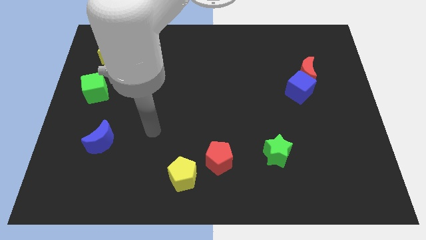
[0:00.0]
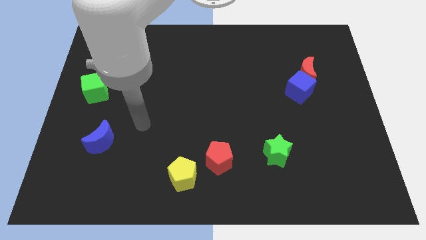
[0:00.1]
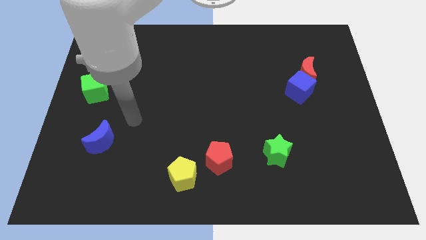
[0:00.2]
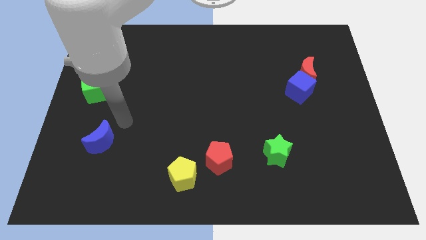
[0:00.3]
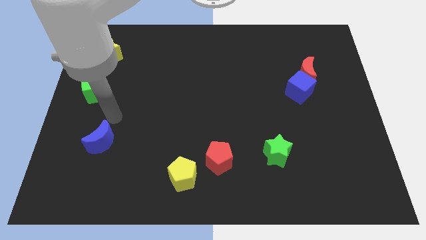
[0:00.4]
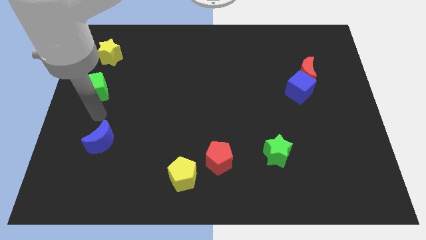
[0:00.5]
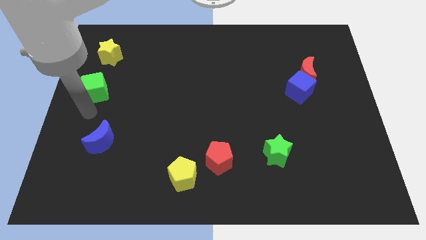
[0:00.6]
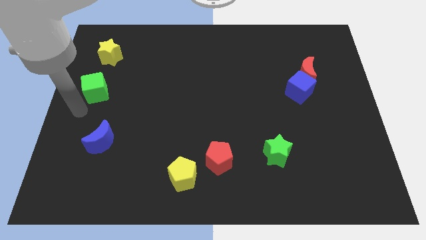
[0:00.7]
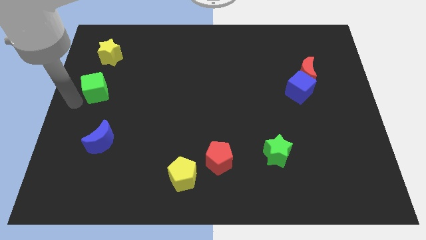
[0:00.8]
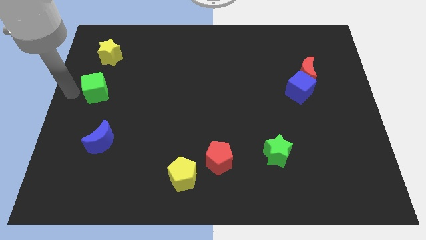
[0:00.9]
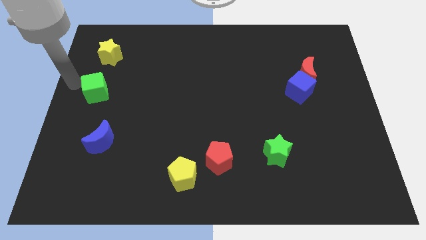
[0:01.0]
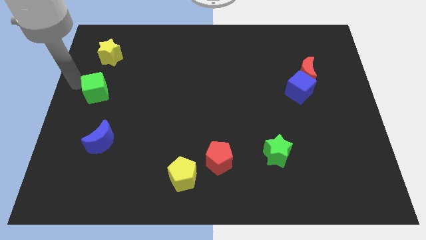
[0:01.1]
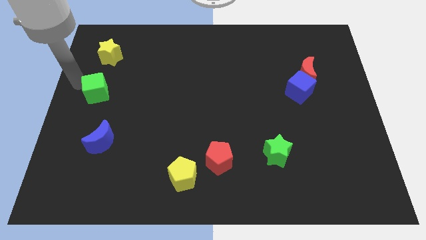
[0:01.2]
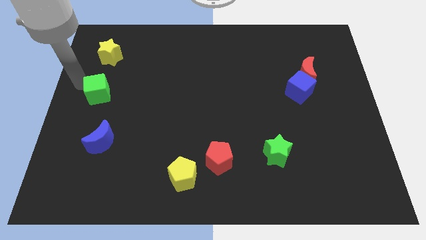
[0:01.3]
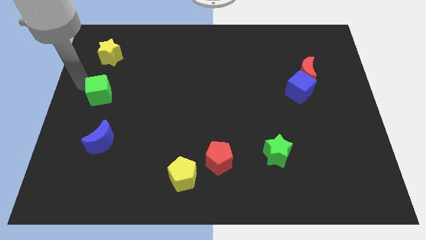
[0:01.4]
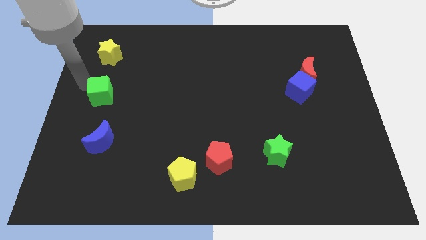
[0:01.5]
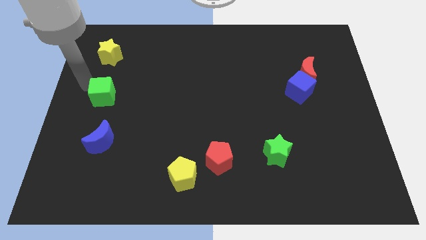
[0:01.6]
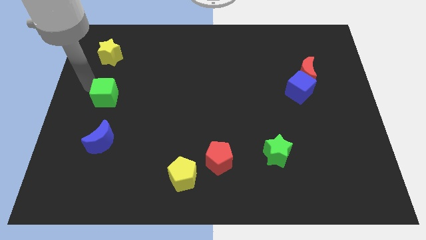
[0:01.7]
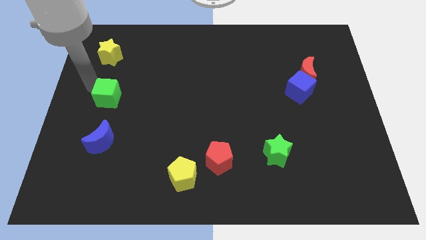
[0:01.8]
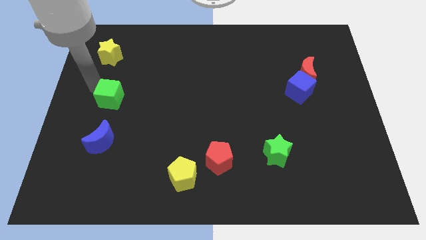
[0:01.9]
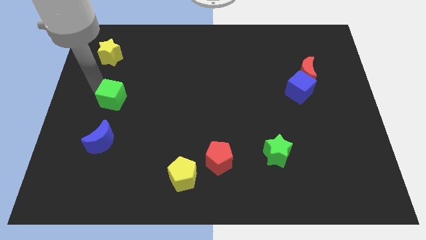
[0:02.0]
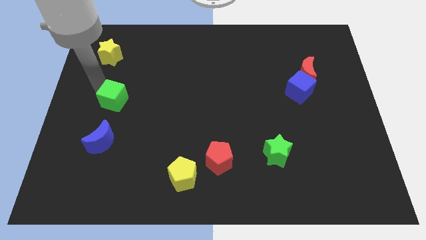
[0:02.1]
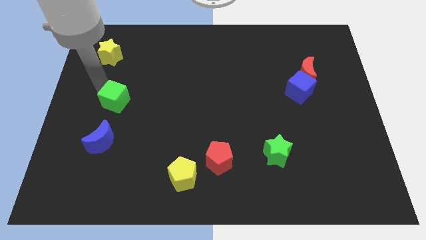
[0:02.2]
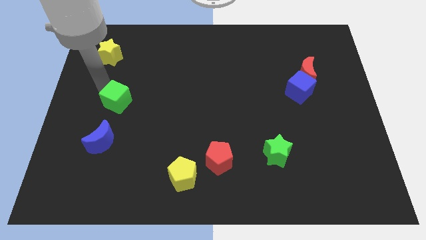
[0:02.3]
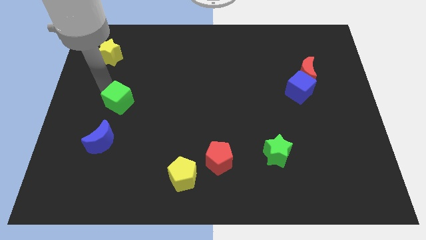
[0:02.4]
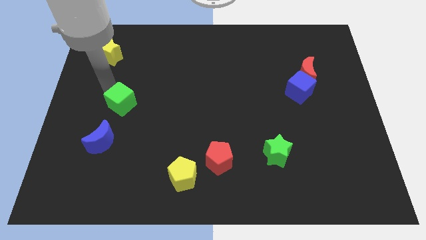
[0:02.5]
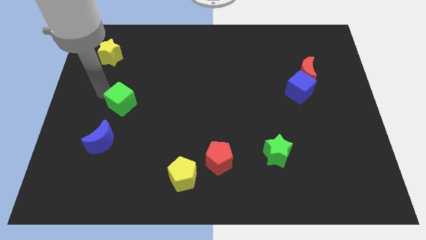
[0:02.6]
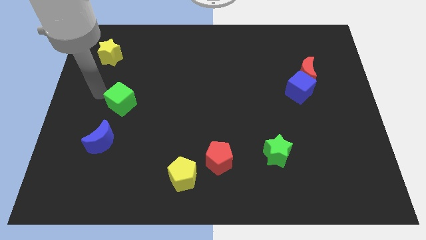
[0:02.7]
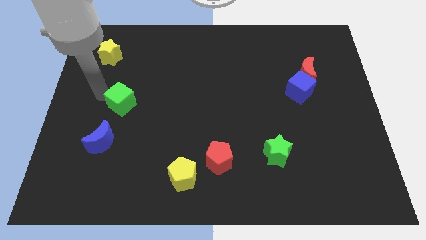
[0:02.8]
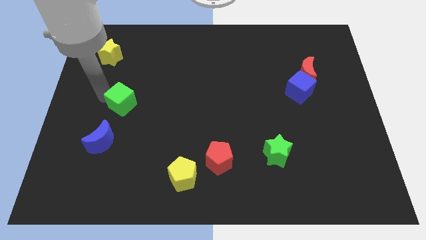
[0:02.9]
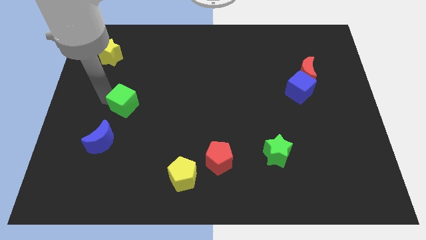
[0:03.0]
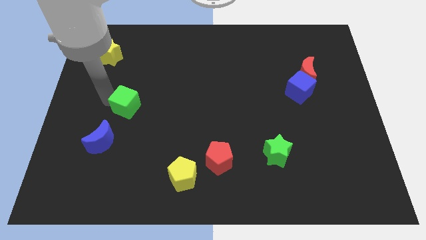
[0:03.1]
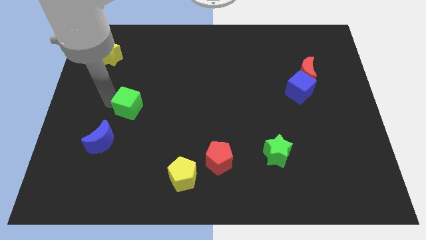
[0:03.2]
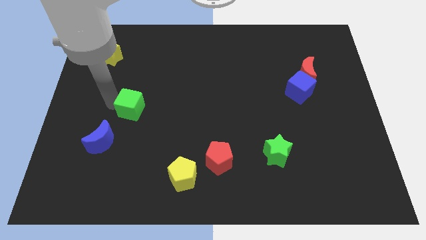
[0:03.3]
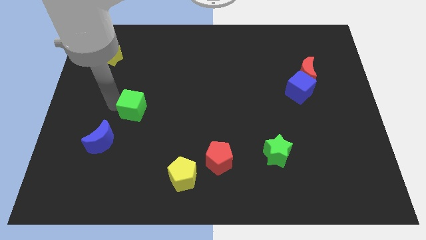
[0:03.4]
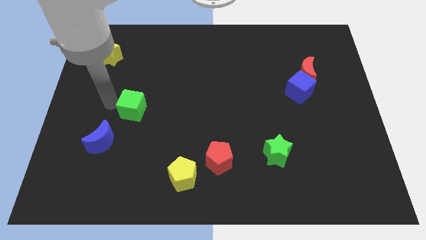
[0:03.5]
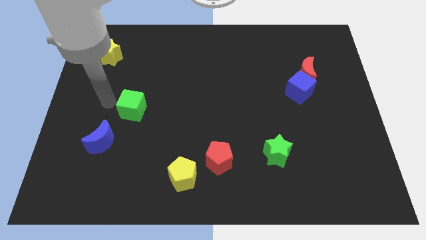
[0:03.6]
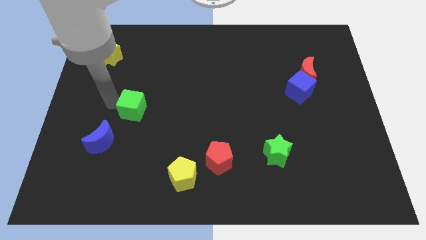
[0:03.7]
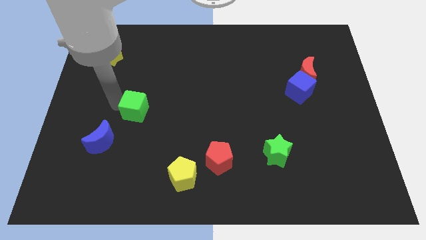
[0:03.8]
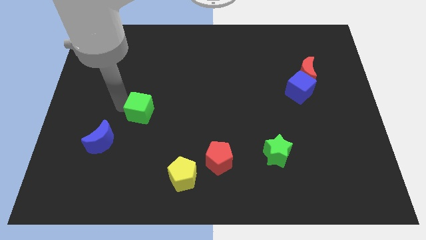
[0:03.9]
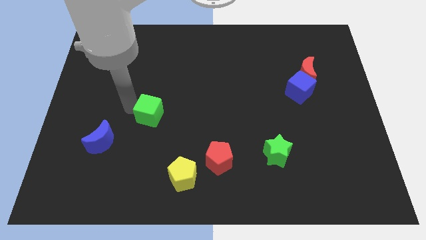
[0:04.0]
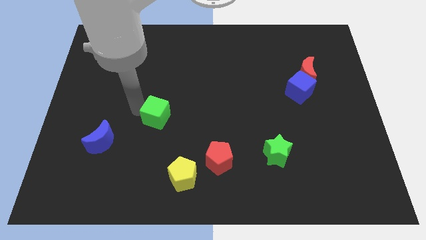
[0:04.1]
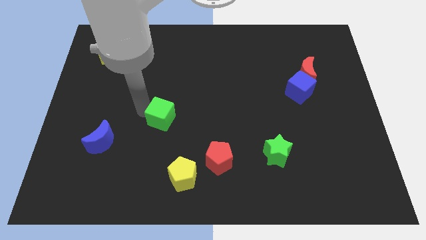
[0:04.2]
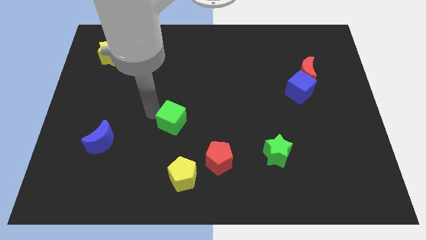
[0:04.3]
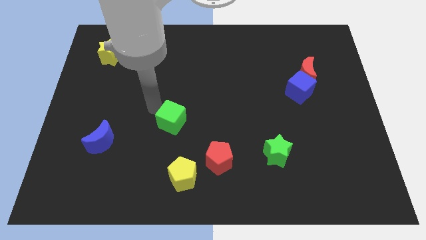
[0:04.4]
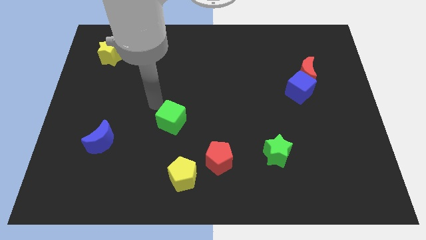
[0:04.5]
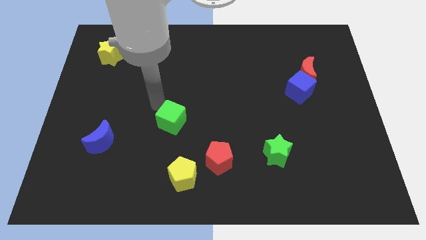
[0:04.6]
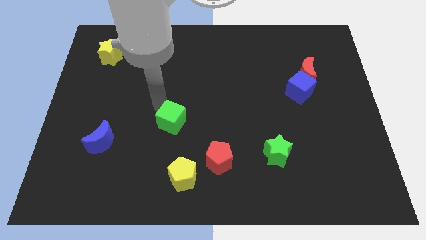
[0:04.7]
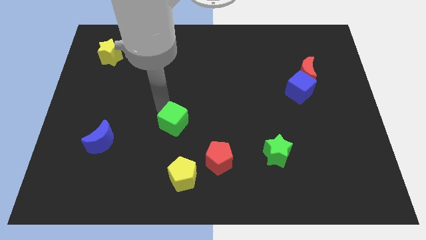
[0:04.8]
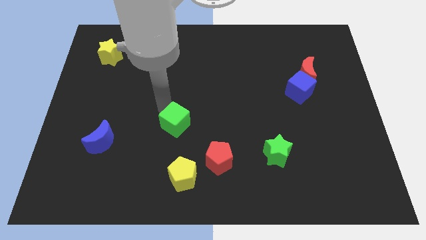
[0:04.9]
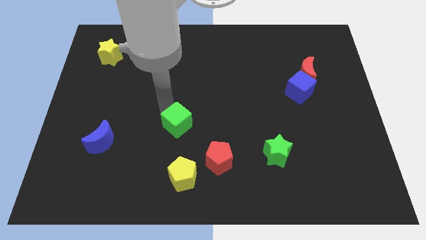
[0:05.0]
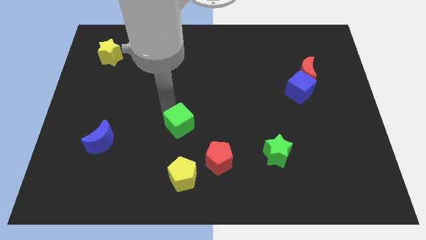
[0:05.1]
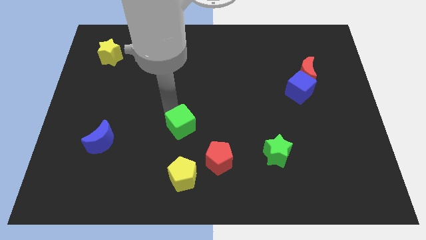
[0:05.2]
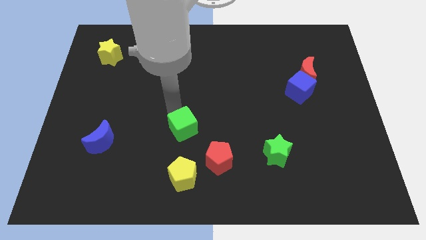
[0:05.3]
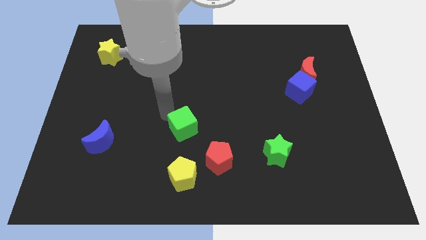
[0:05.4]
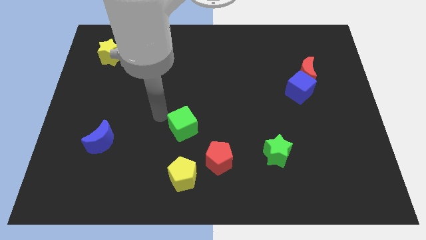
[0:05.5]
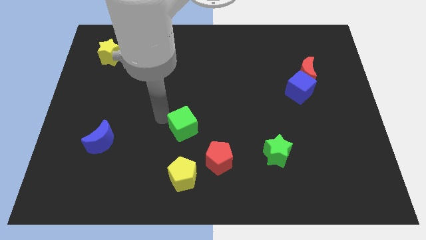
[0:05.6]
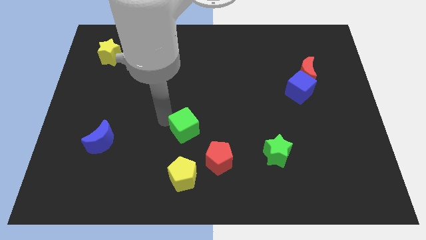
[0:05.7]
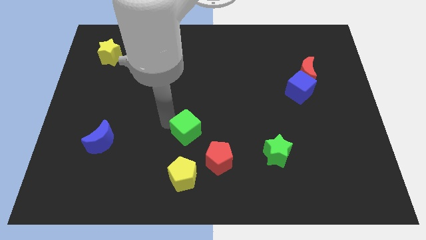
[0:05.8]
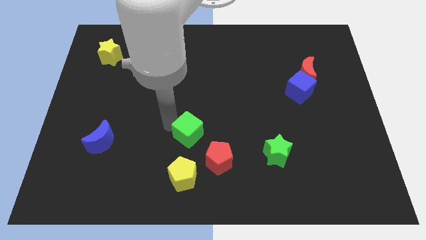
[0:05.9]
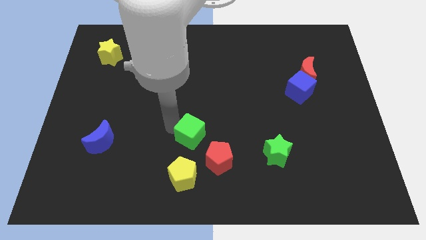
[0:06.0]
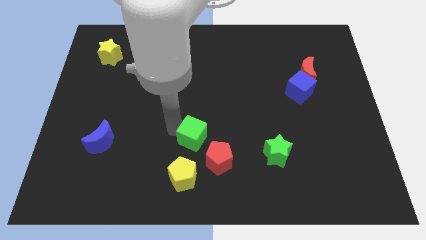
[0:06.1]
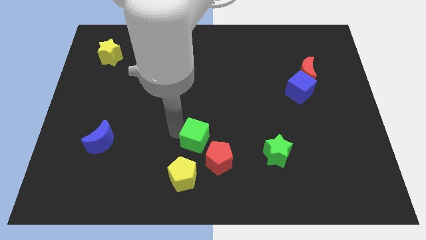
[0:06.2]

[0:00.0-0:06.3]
move the green cube to the top right of the yellow pentagon

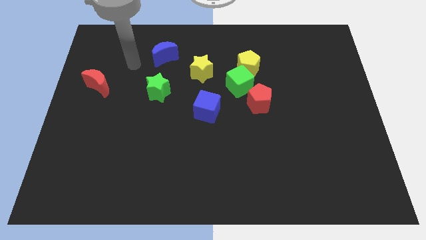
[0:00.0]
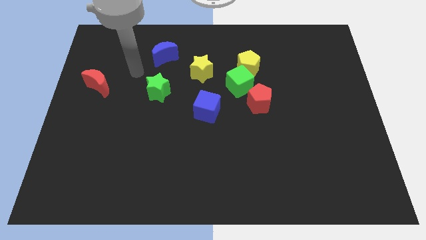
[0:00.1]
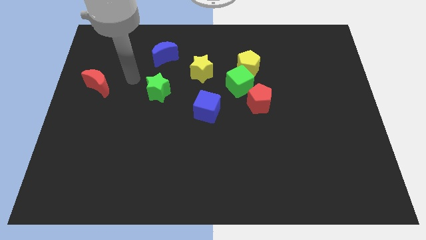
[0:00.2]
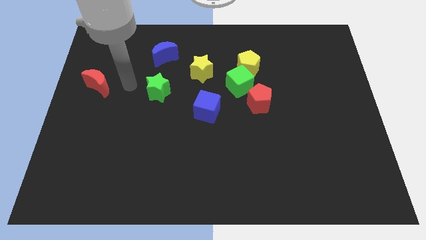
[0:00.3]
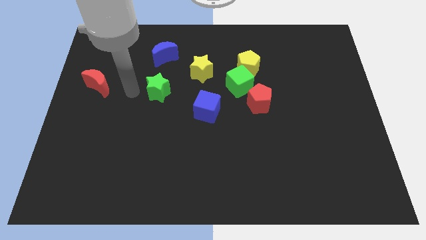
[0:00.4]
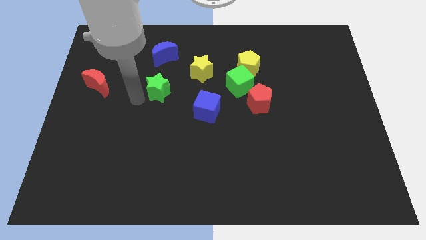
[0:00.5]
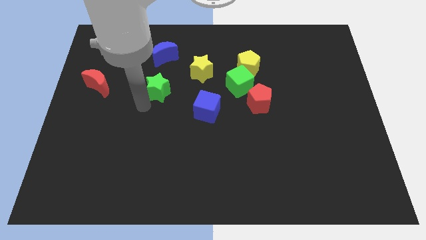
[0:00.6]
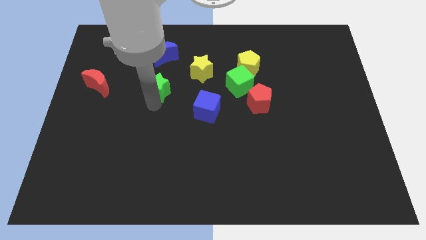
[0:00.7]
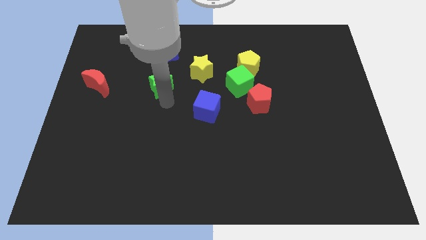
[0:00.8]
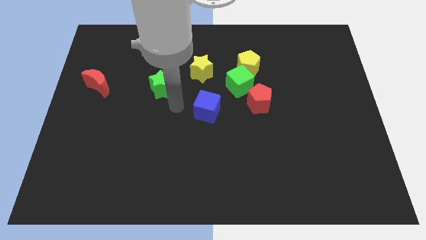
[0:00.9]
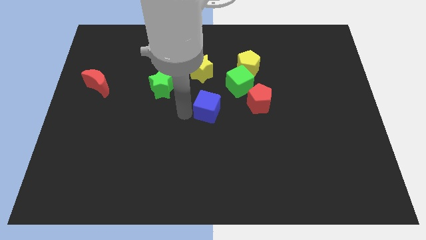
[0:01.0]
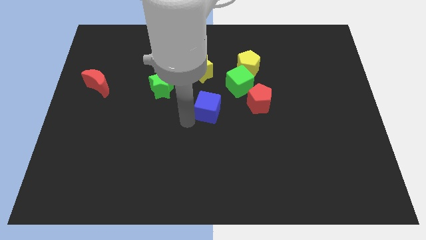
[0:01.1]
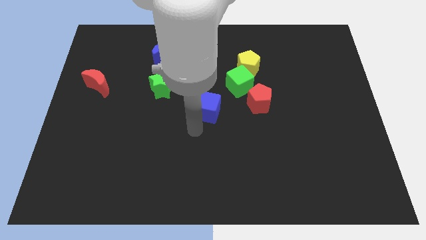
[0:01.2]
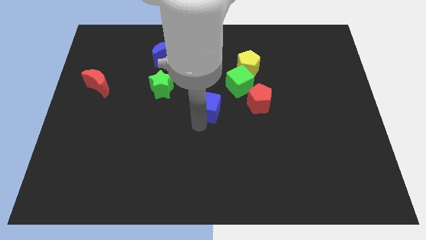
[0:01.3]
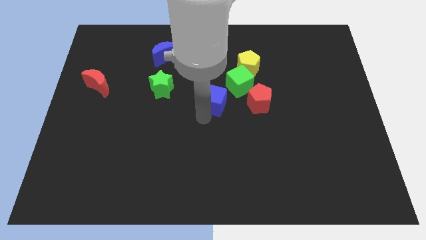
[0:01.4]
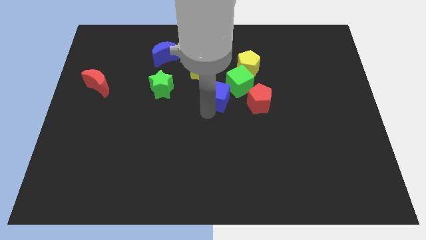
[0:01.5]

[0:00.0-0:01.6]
slide the blue cube to the bottom right of the yellow star
